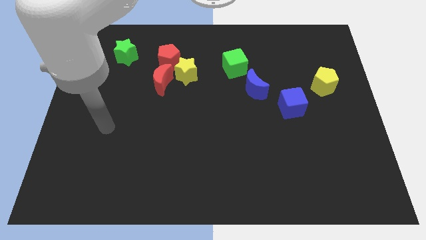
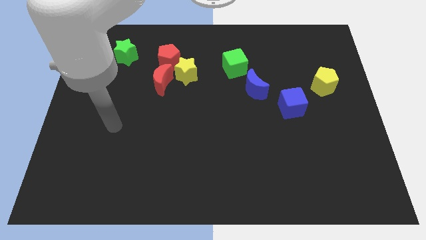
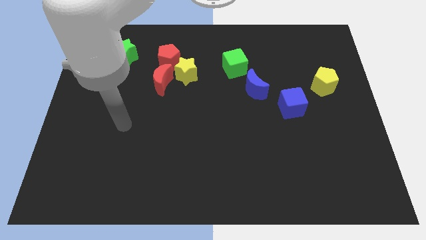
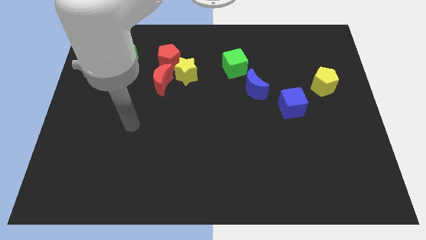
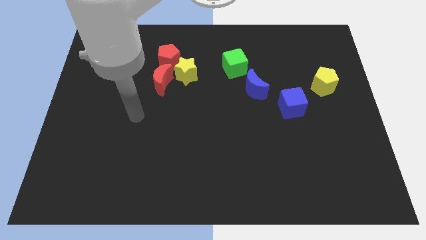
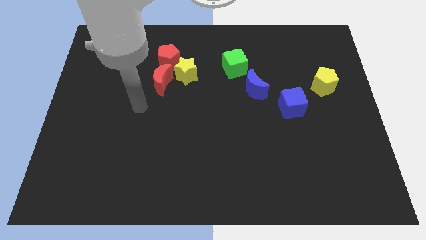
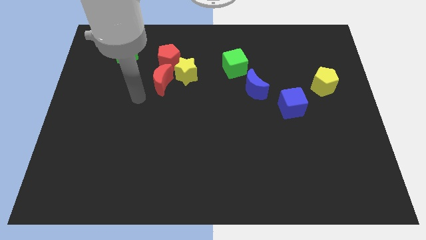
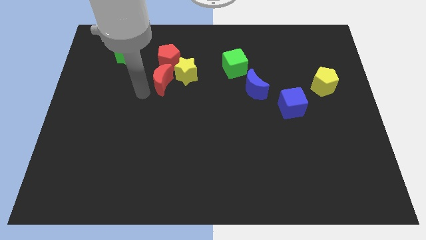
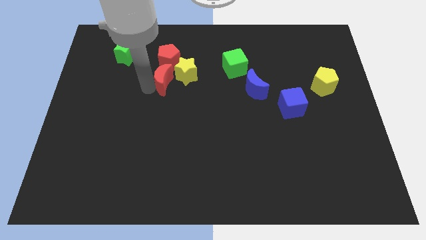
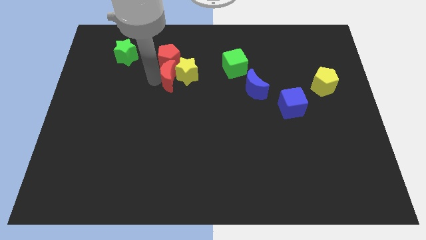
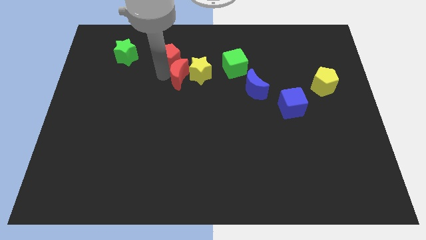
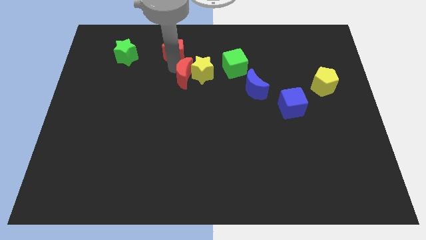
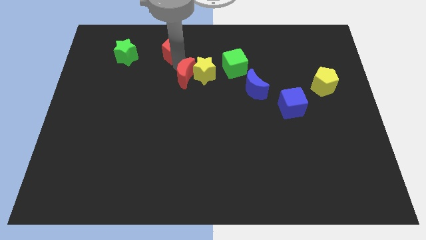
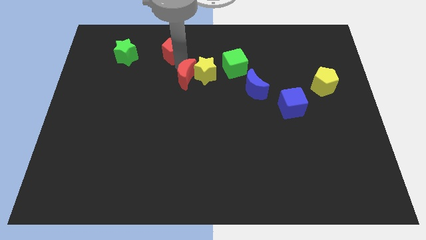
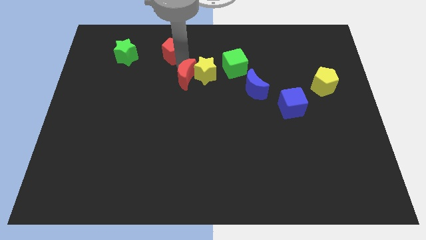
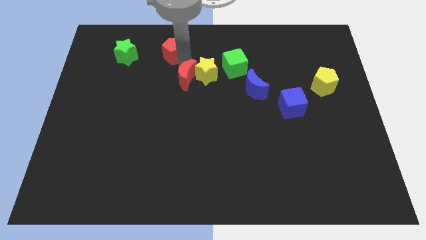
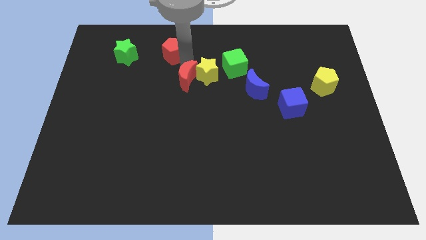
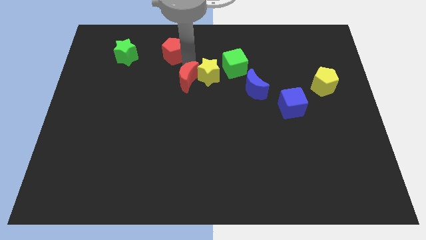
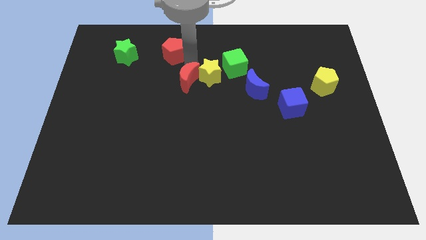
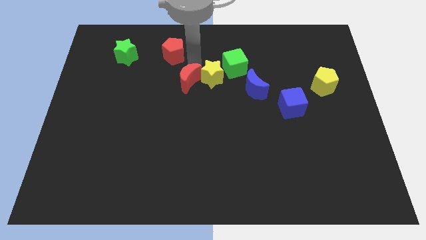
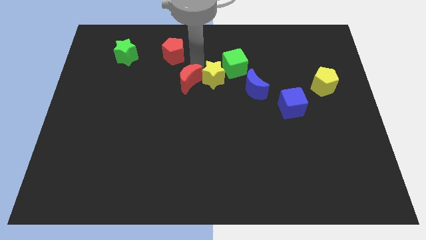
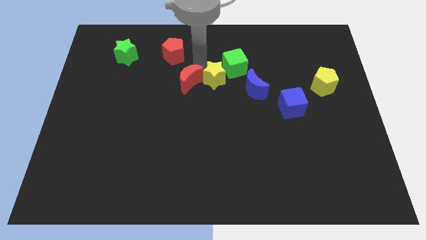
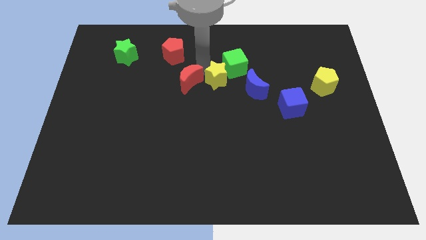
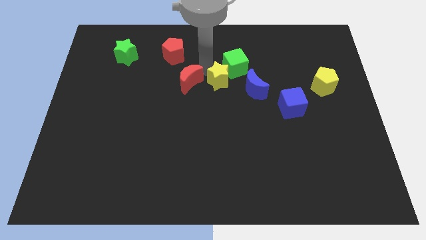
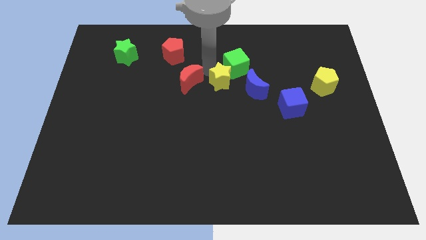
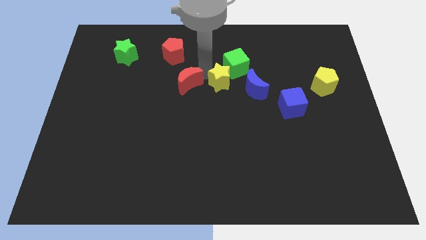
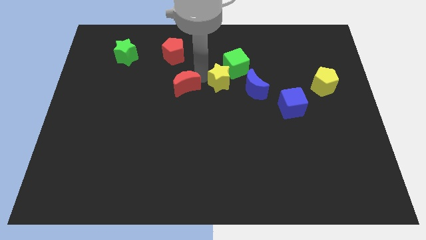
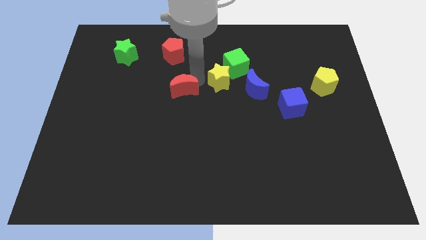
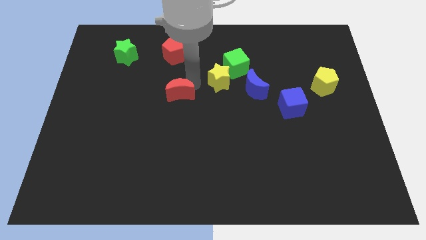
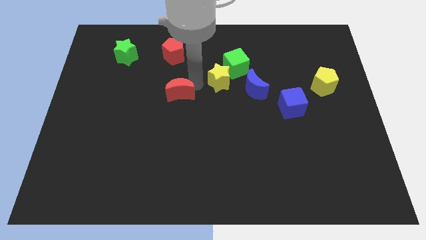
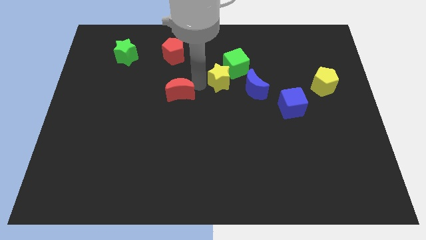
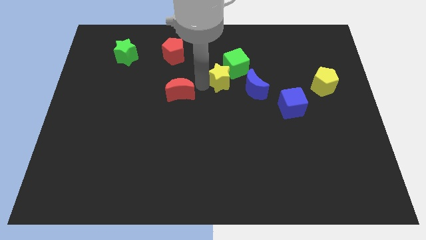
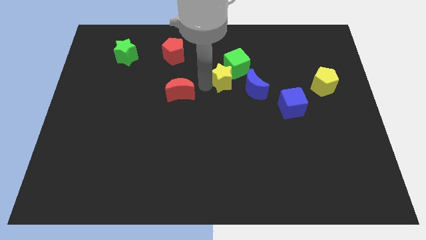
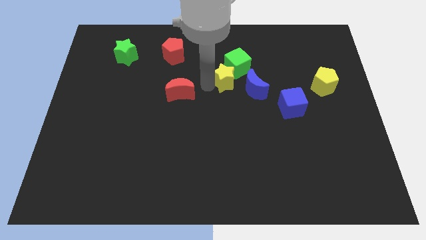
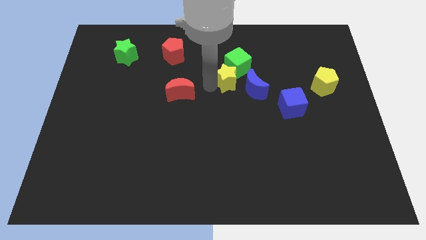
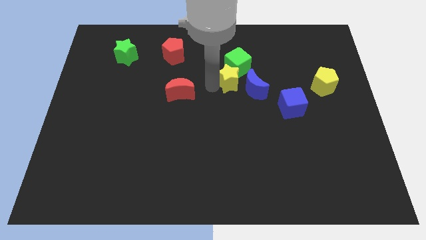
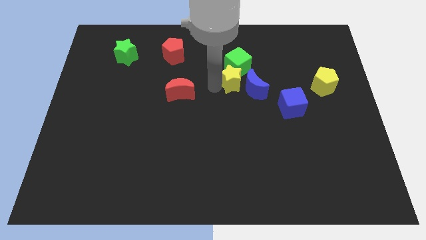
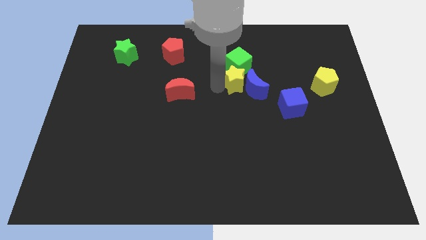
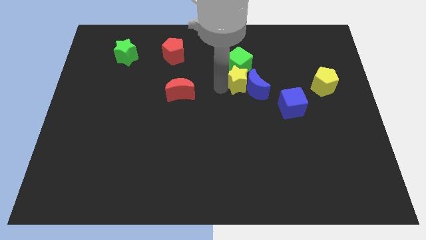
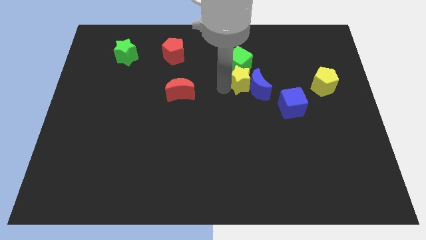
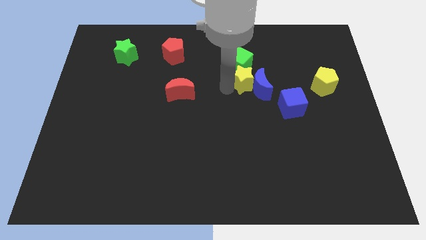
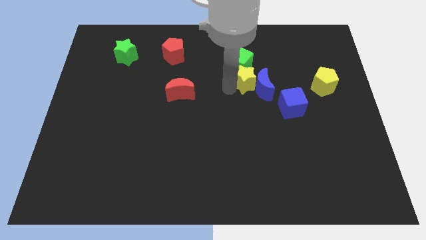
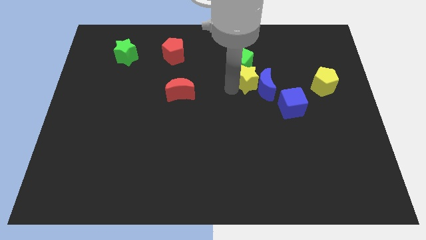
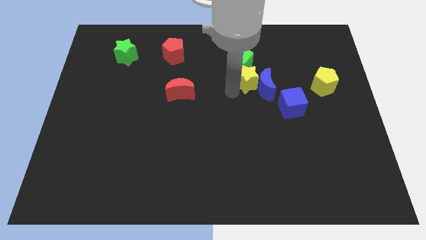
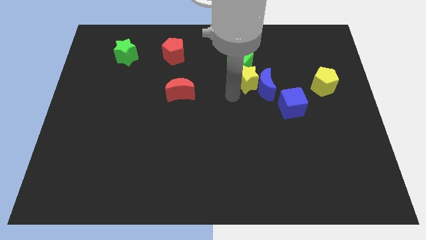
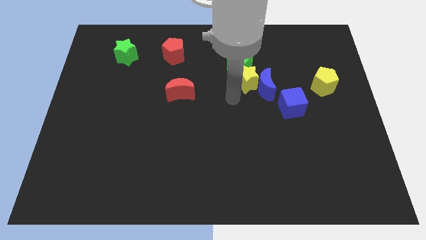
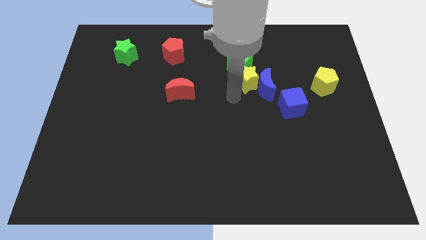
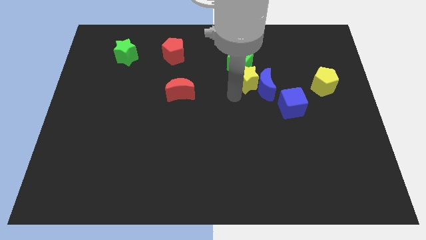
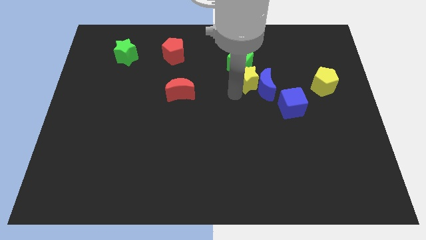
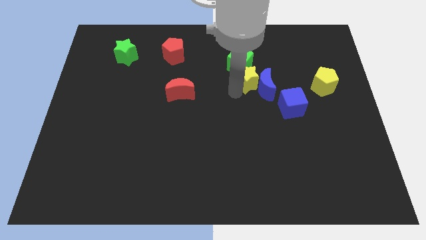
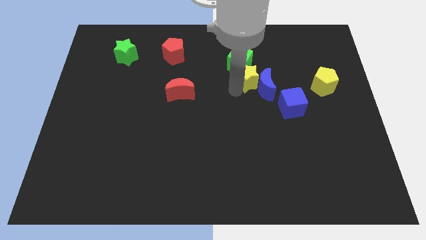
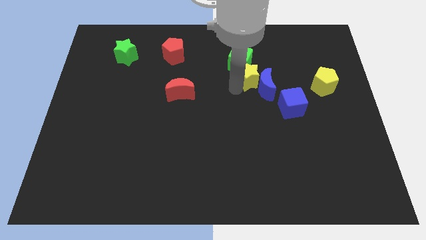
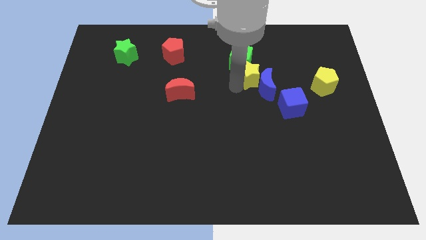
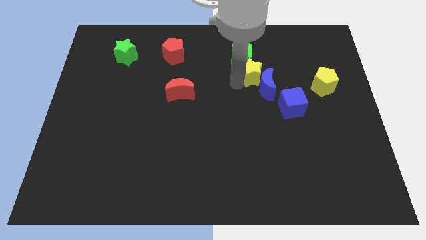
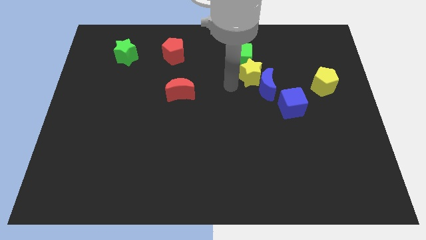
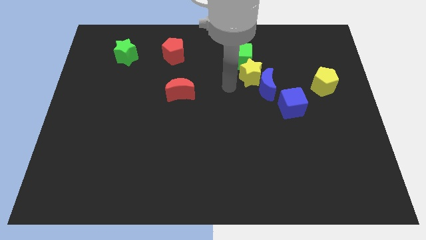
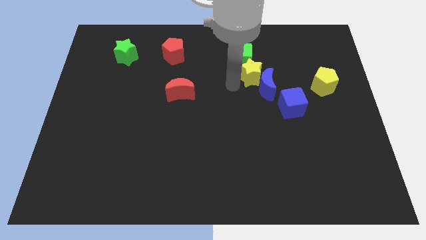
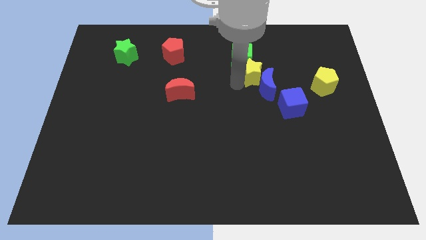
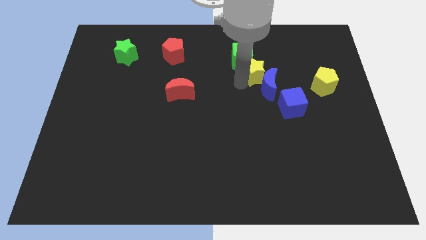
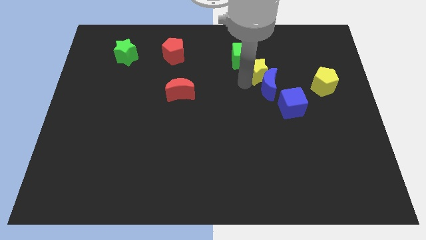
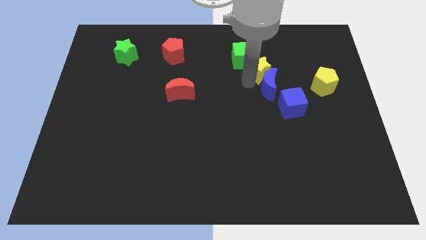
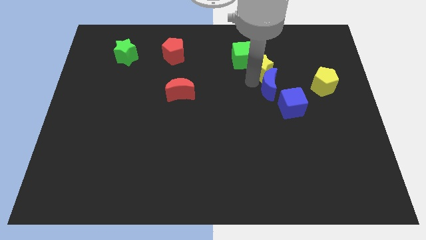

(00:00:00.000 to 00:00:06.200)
move the yellow star to the right side of the green cube

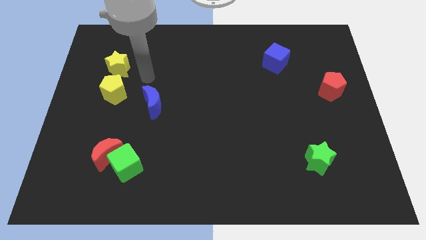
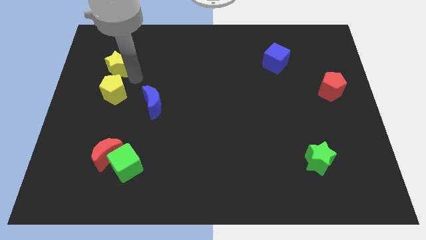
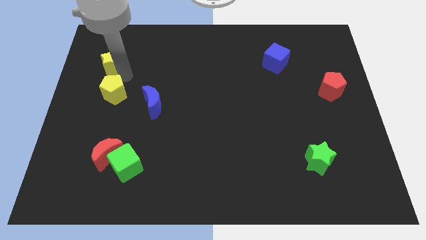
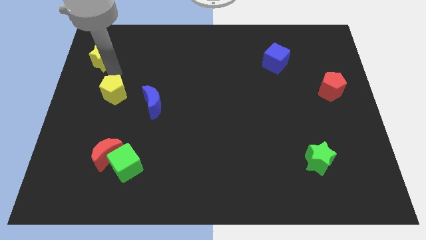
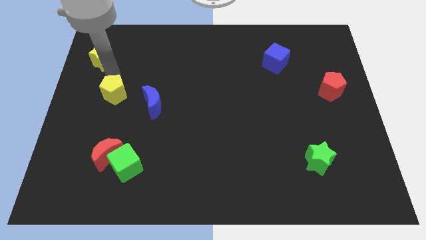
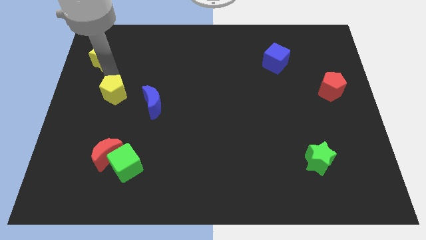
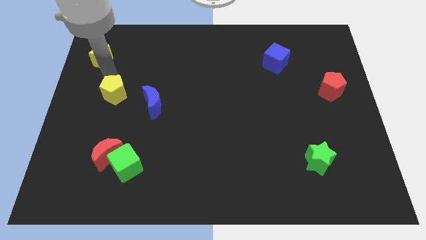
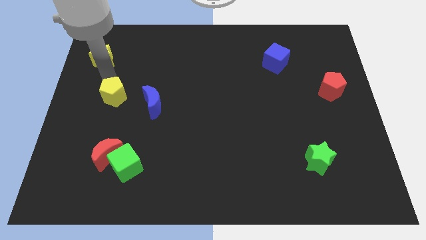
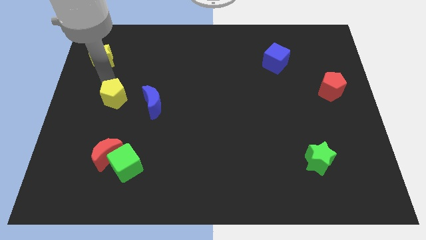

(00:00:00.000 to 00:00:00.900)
push the yellow pentagon above the red moon
